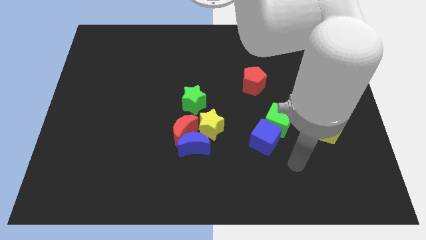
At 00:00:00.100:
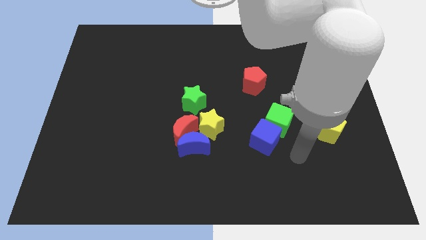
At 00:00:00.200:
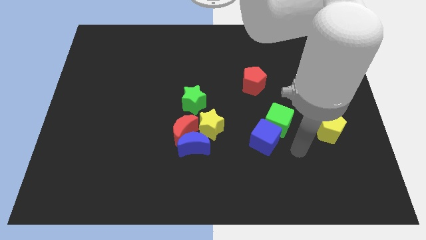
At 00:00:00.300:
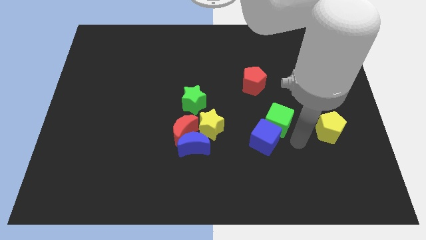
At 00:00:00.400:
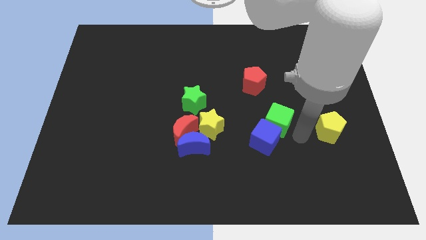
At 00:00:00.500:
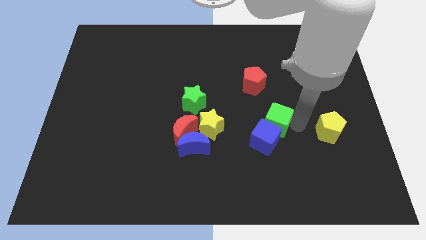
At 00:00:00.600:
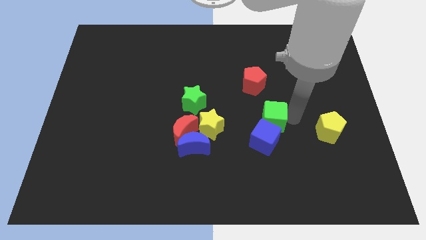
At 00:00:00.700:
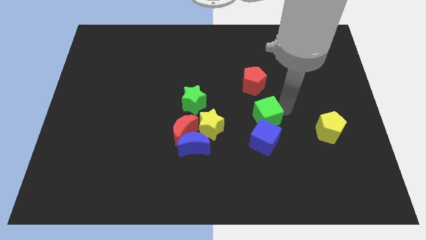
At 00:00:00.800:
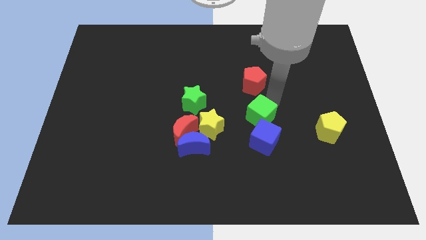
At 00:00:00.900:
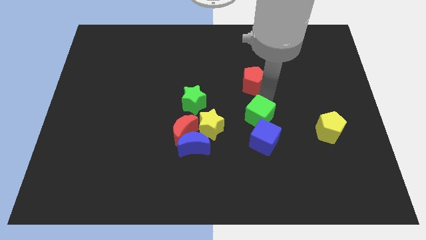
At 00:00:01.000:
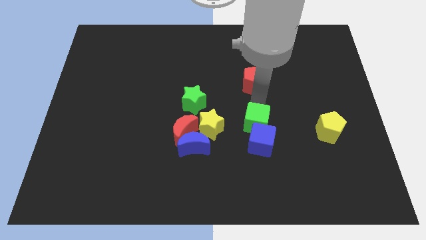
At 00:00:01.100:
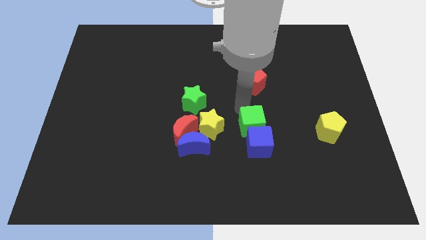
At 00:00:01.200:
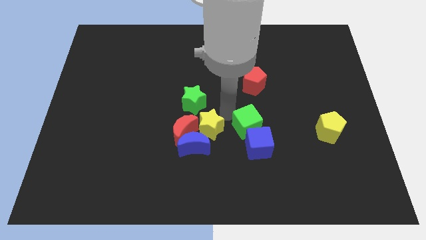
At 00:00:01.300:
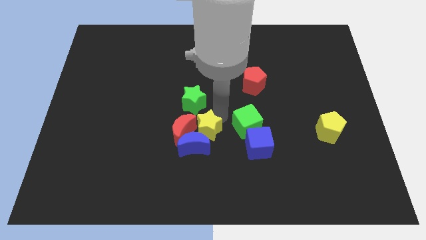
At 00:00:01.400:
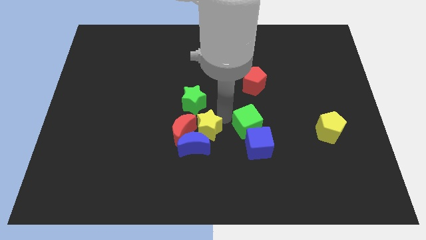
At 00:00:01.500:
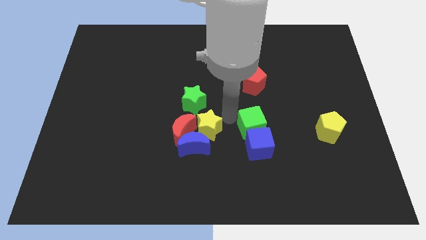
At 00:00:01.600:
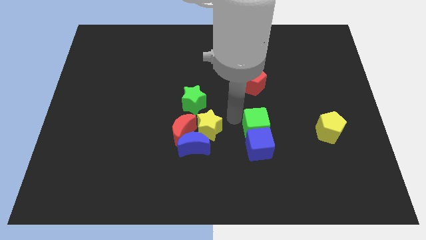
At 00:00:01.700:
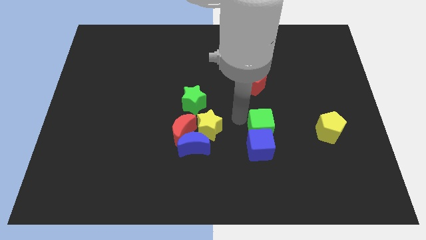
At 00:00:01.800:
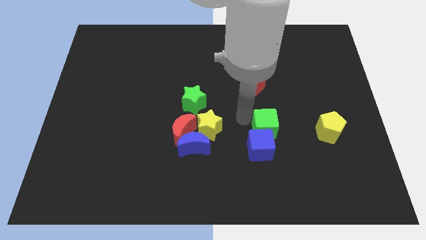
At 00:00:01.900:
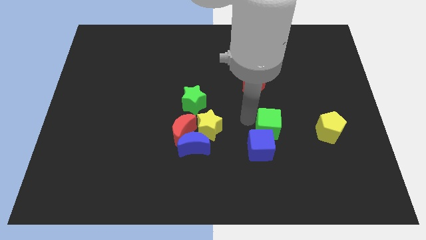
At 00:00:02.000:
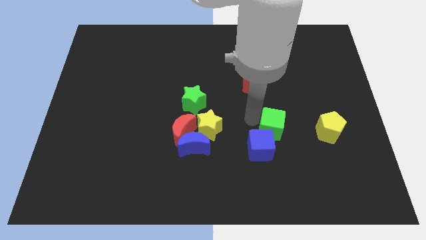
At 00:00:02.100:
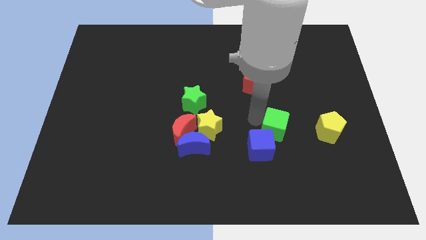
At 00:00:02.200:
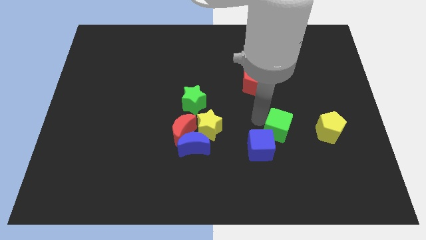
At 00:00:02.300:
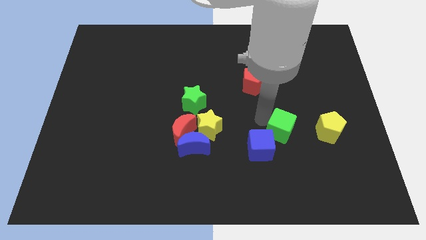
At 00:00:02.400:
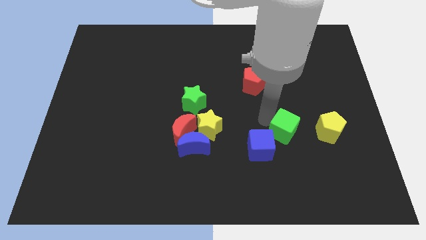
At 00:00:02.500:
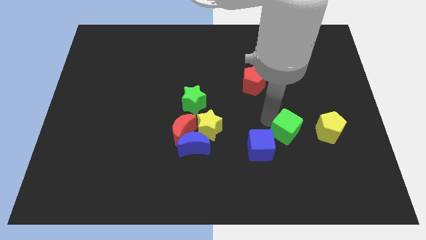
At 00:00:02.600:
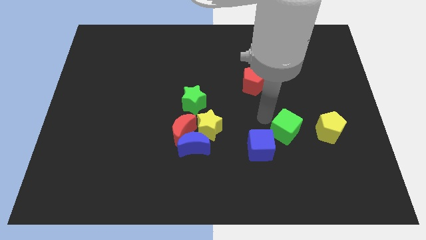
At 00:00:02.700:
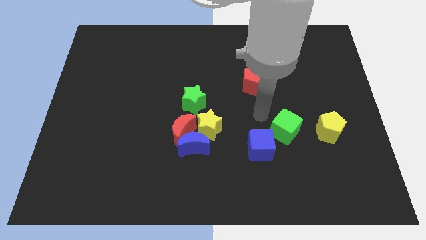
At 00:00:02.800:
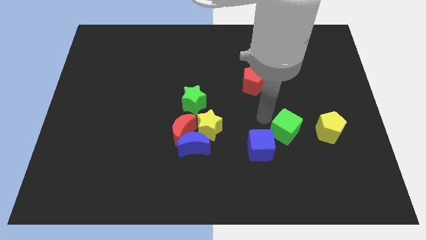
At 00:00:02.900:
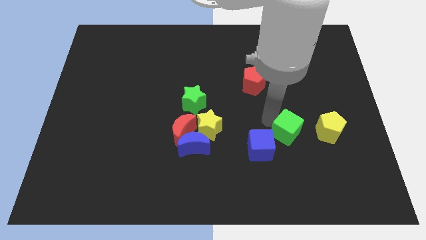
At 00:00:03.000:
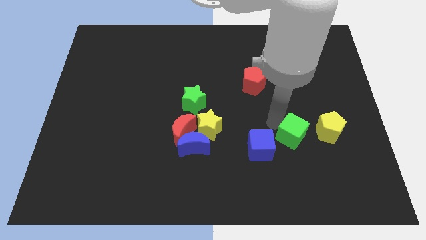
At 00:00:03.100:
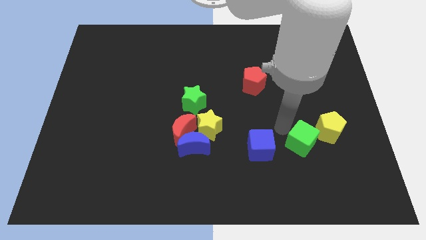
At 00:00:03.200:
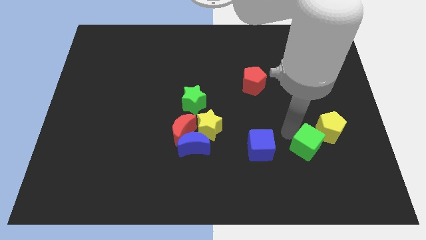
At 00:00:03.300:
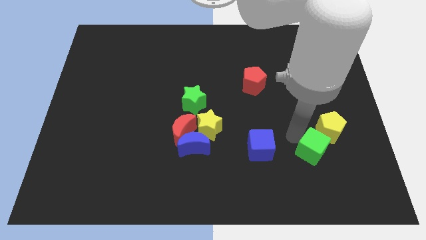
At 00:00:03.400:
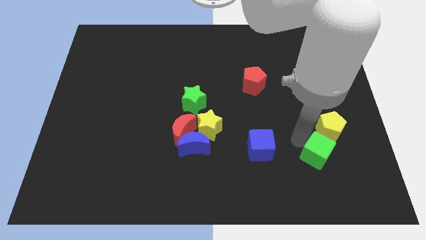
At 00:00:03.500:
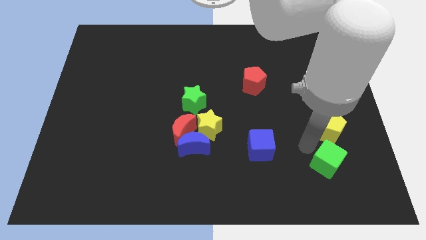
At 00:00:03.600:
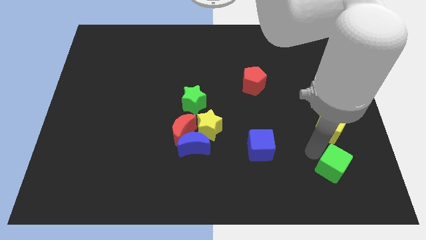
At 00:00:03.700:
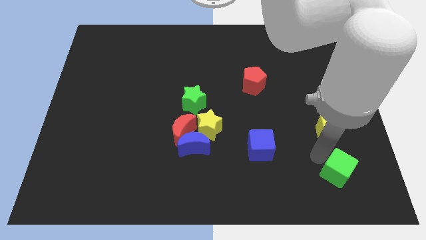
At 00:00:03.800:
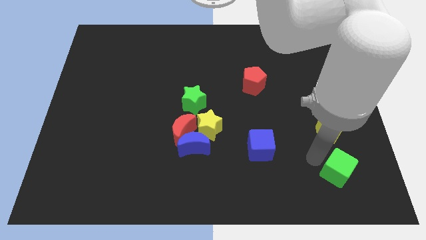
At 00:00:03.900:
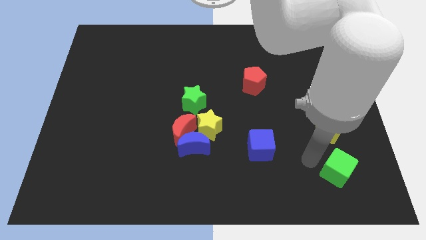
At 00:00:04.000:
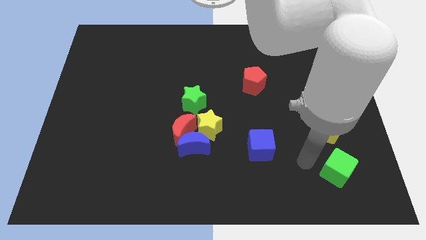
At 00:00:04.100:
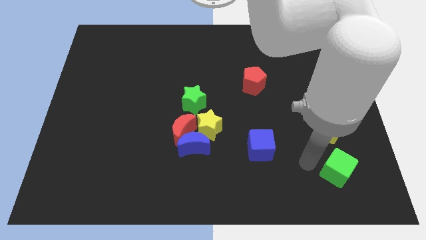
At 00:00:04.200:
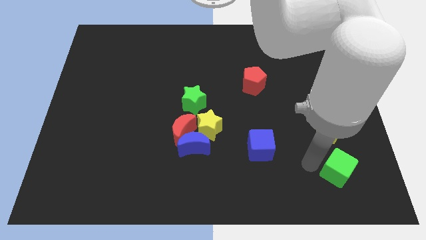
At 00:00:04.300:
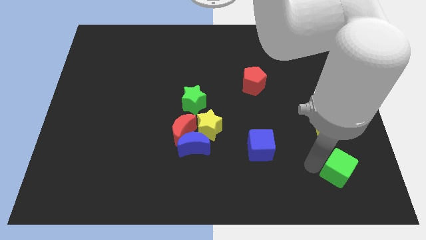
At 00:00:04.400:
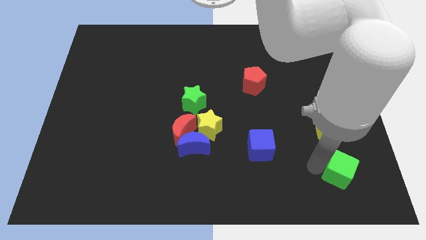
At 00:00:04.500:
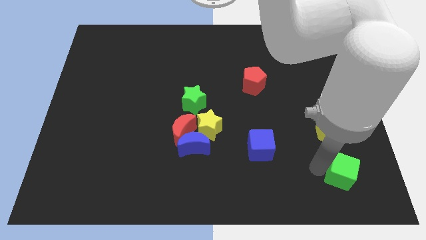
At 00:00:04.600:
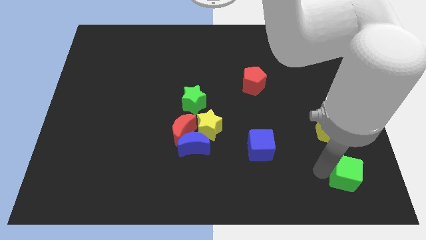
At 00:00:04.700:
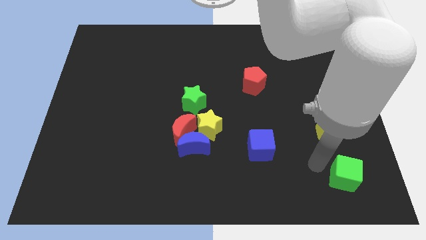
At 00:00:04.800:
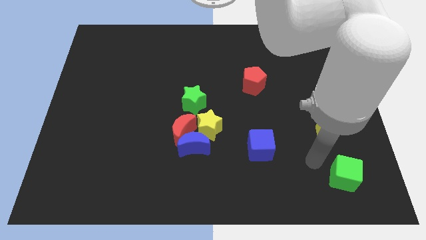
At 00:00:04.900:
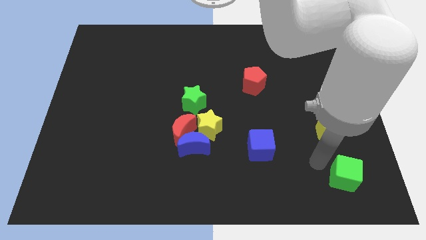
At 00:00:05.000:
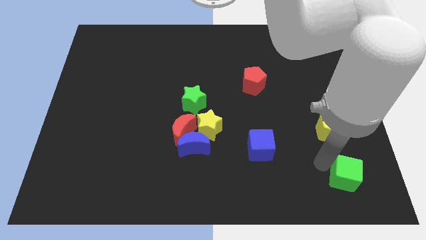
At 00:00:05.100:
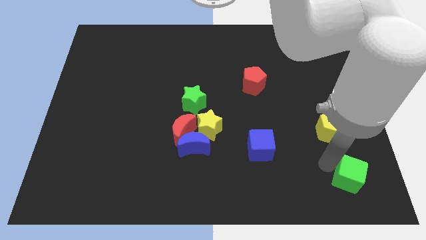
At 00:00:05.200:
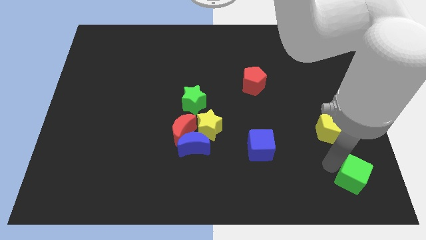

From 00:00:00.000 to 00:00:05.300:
put the green cube to the bottom right corner

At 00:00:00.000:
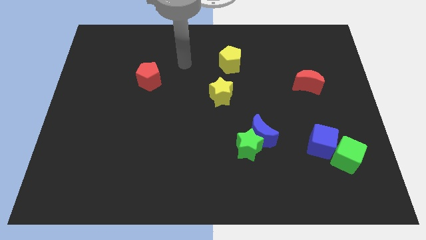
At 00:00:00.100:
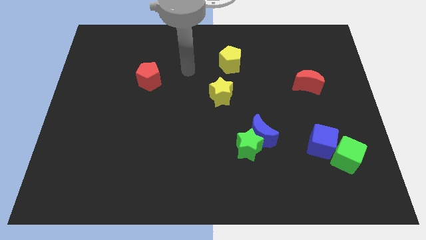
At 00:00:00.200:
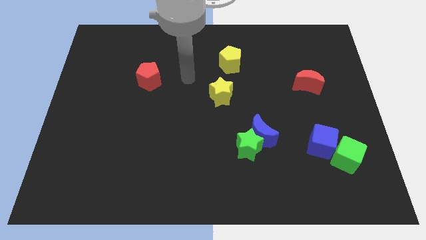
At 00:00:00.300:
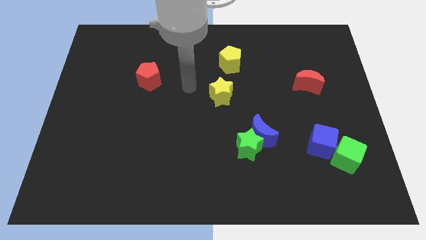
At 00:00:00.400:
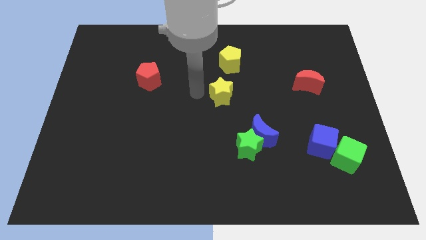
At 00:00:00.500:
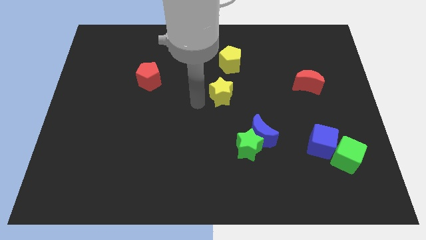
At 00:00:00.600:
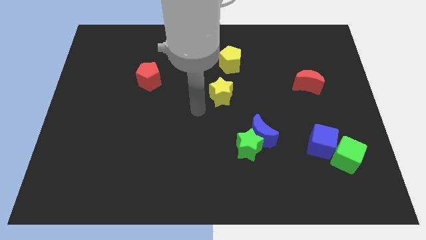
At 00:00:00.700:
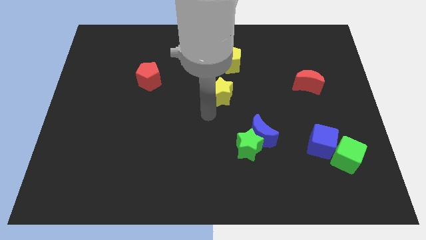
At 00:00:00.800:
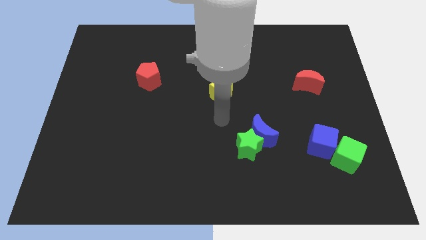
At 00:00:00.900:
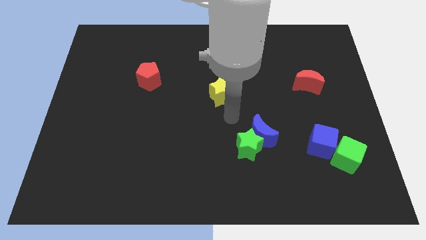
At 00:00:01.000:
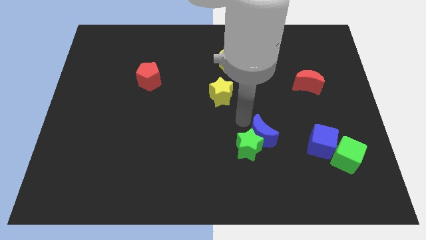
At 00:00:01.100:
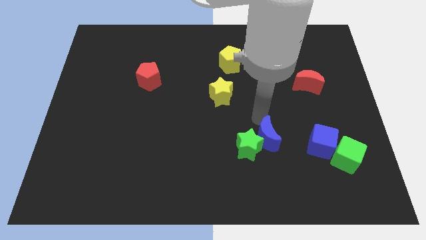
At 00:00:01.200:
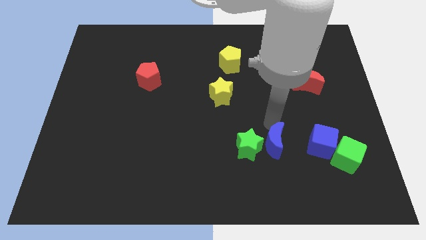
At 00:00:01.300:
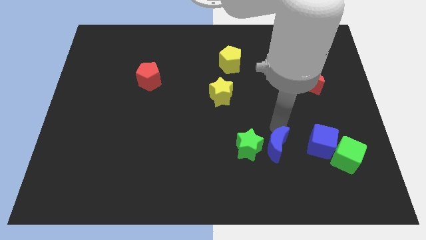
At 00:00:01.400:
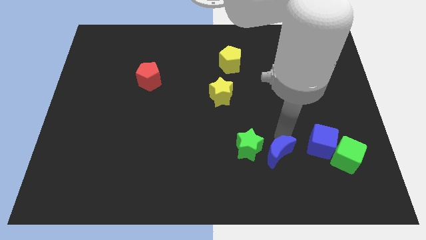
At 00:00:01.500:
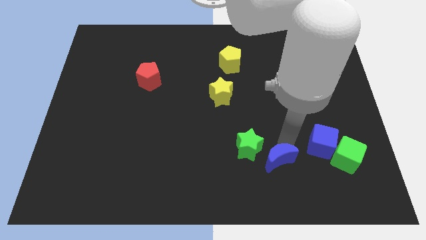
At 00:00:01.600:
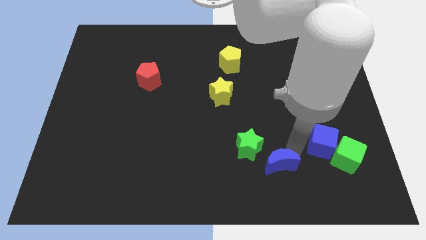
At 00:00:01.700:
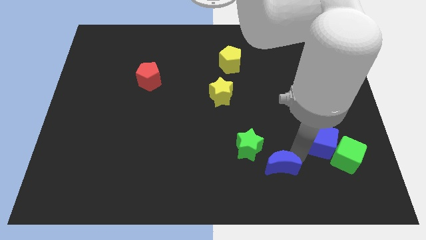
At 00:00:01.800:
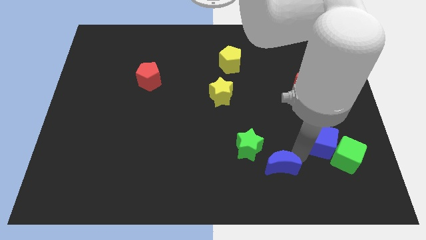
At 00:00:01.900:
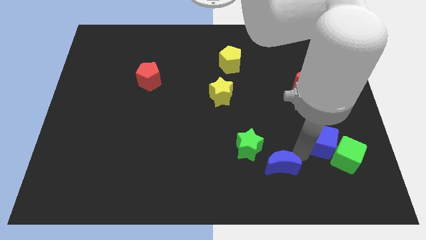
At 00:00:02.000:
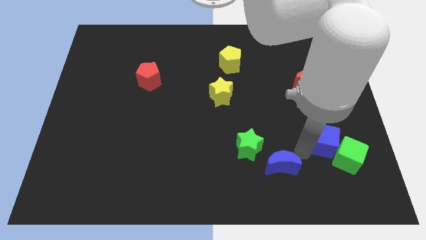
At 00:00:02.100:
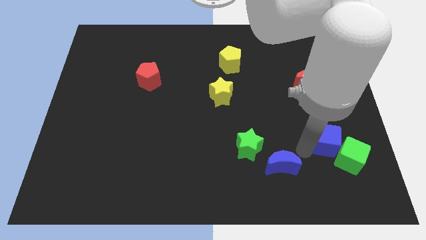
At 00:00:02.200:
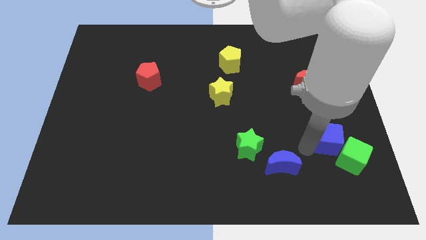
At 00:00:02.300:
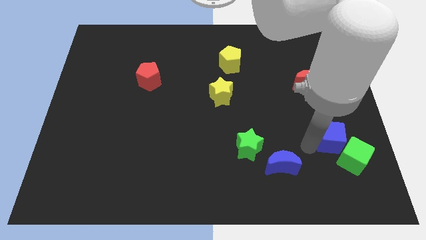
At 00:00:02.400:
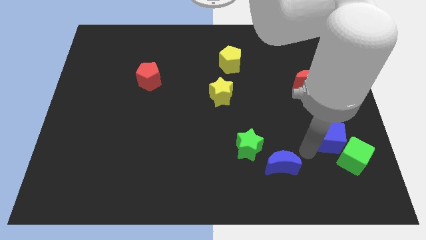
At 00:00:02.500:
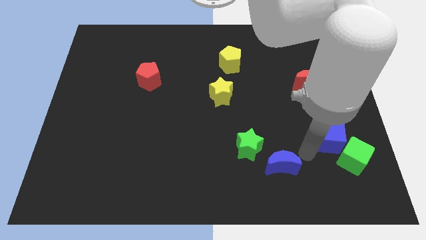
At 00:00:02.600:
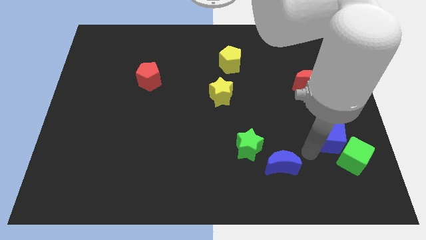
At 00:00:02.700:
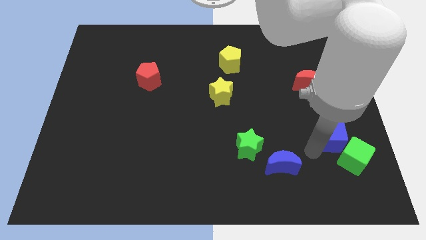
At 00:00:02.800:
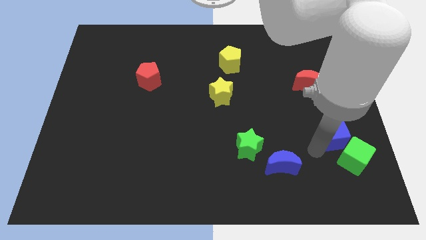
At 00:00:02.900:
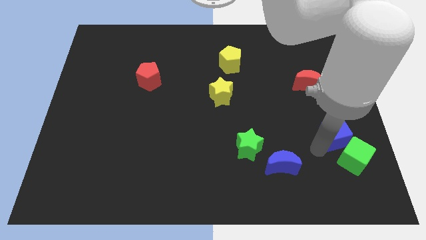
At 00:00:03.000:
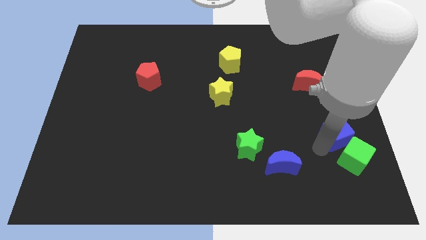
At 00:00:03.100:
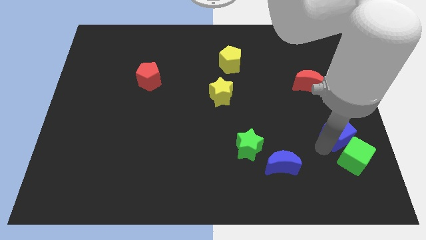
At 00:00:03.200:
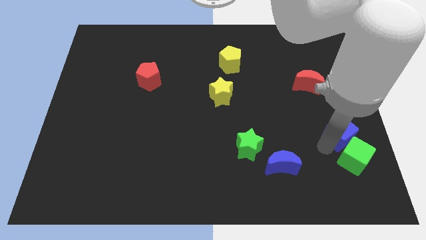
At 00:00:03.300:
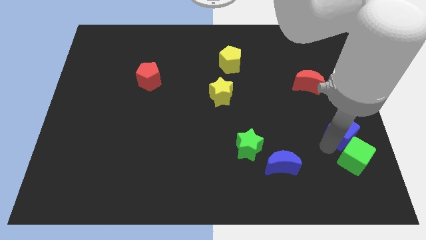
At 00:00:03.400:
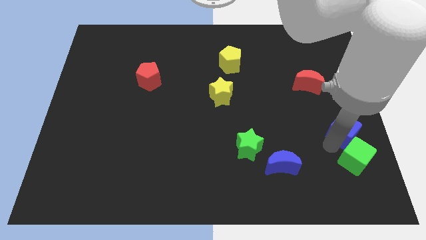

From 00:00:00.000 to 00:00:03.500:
put the blue cube to the right side of the board
